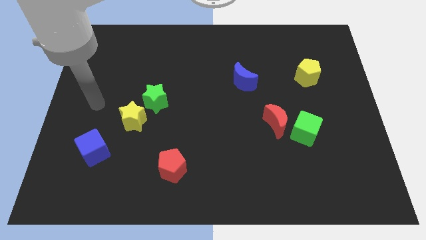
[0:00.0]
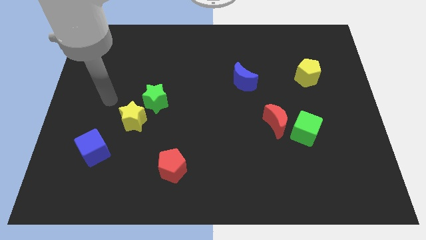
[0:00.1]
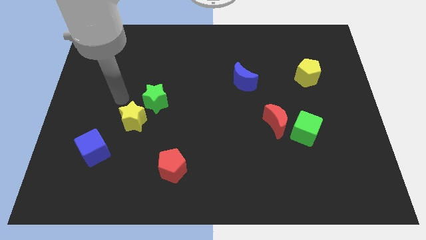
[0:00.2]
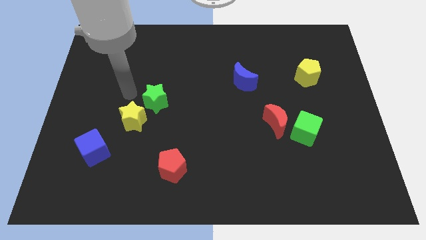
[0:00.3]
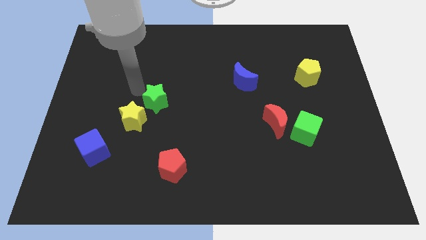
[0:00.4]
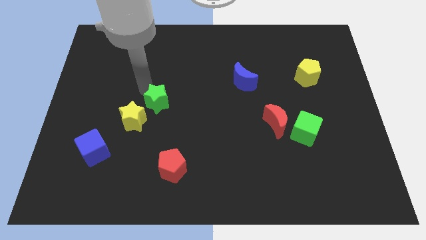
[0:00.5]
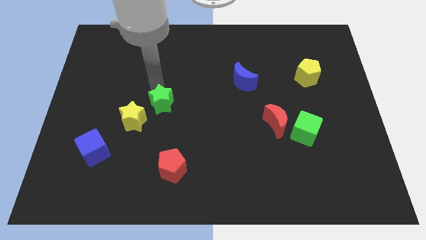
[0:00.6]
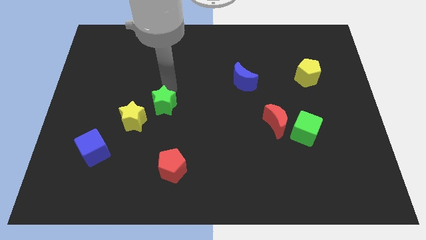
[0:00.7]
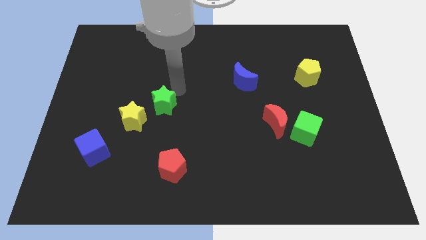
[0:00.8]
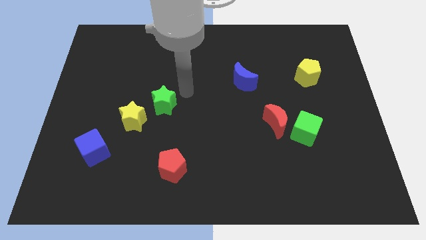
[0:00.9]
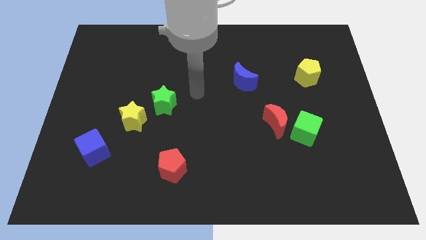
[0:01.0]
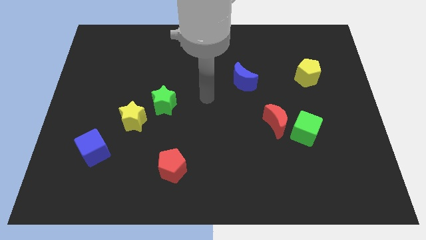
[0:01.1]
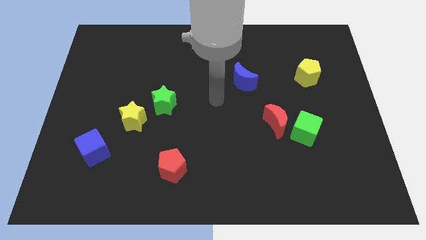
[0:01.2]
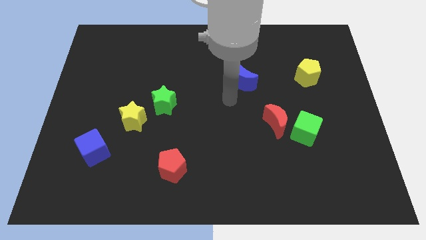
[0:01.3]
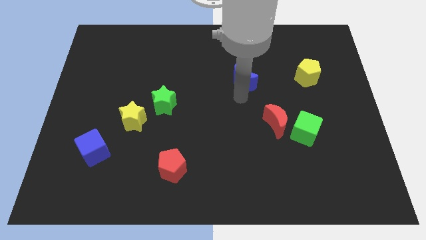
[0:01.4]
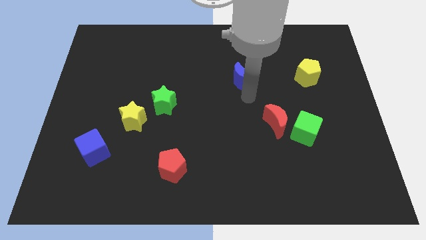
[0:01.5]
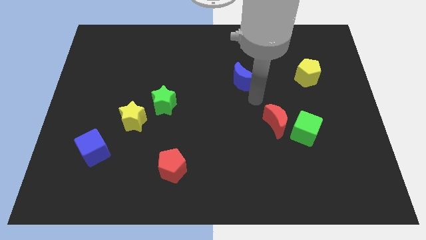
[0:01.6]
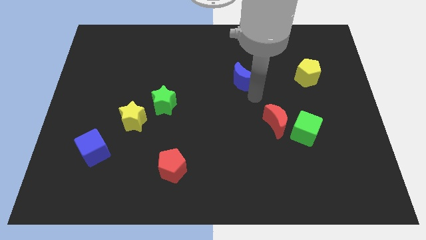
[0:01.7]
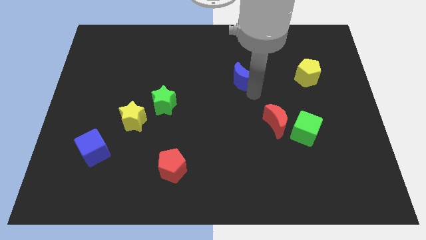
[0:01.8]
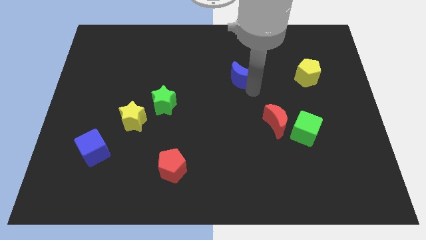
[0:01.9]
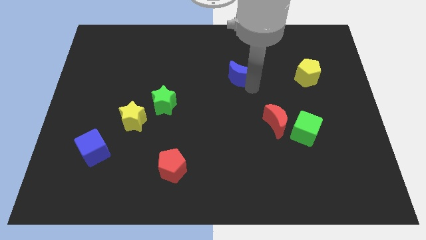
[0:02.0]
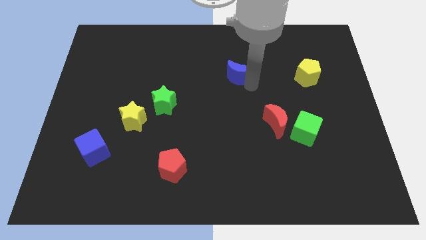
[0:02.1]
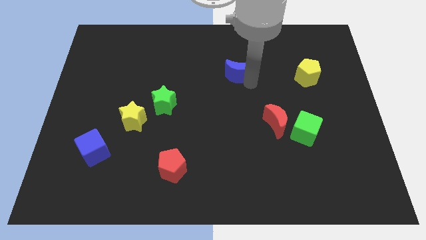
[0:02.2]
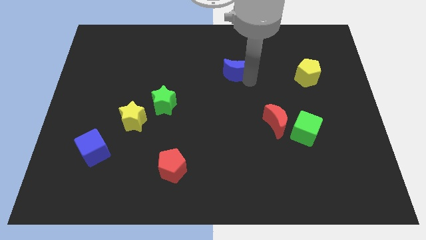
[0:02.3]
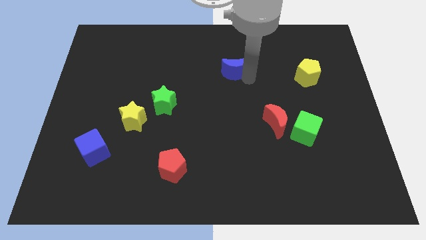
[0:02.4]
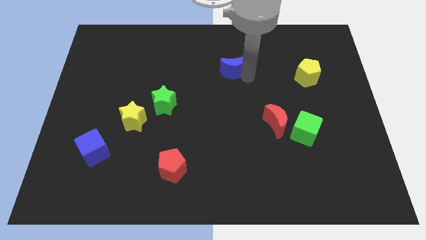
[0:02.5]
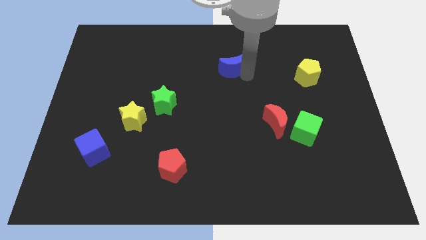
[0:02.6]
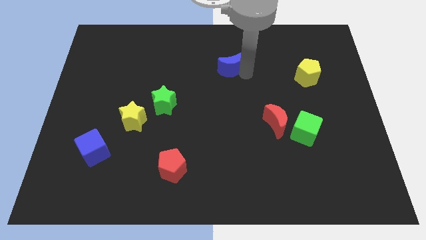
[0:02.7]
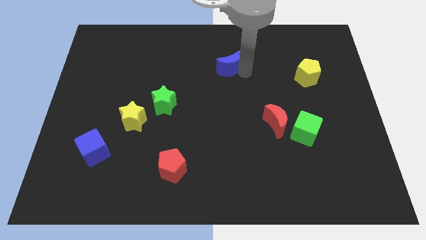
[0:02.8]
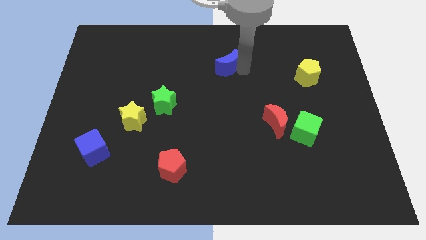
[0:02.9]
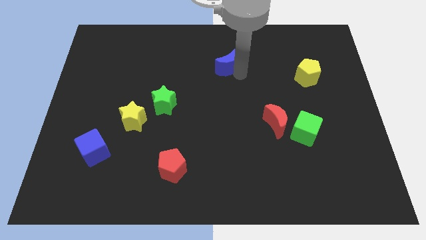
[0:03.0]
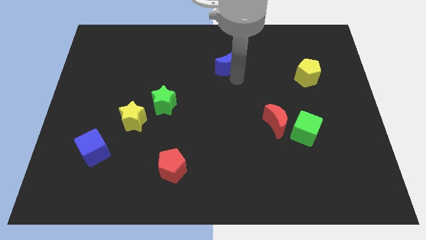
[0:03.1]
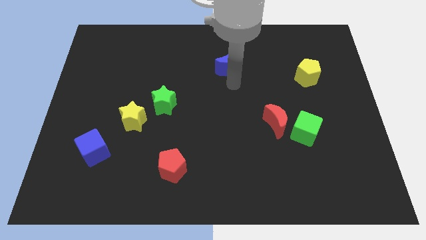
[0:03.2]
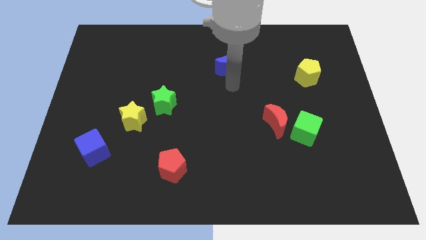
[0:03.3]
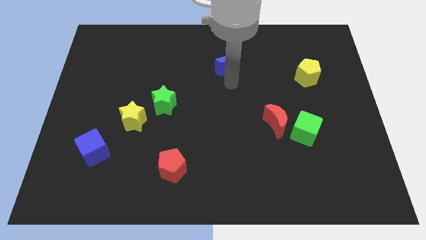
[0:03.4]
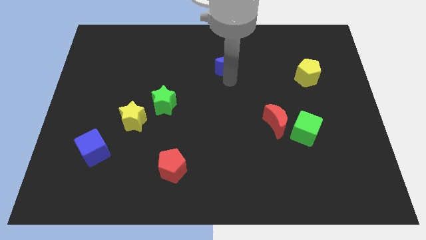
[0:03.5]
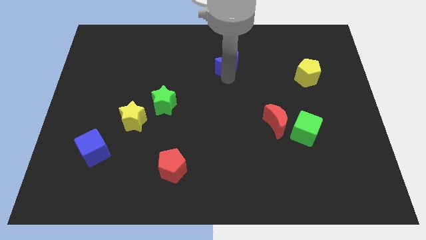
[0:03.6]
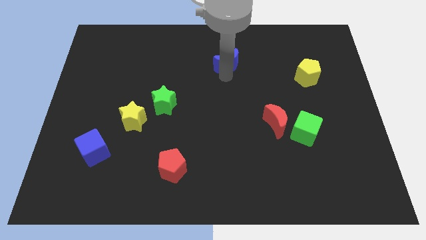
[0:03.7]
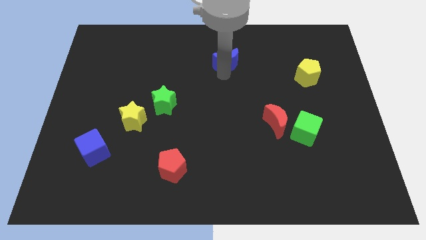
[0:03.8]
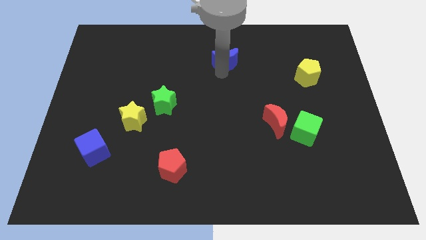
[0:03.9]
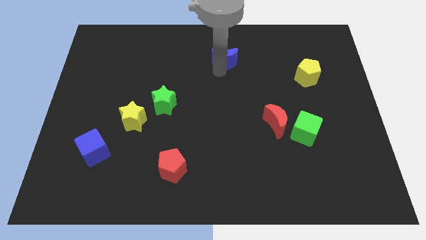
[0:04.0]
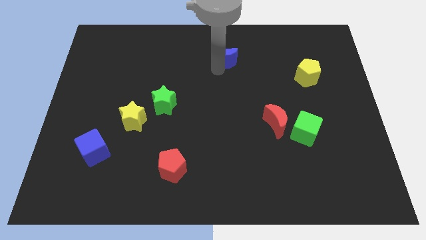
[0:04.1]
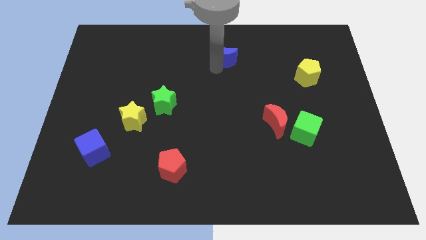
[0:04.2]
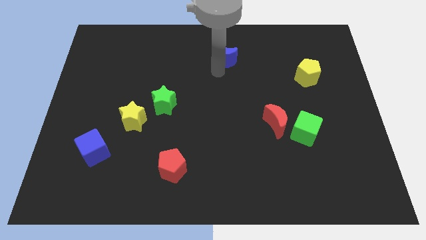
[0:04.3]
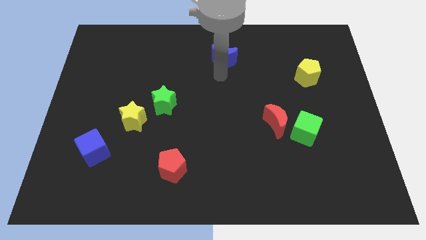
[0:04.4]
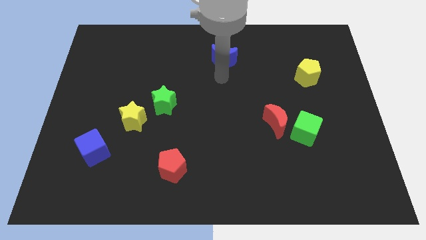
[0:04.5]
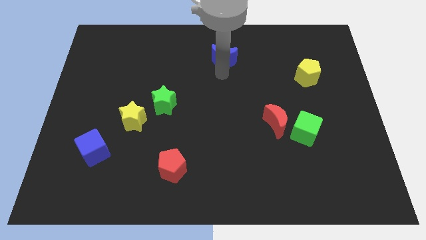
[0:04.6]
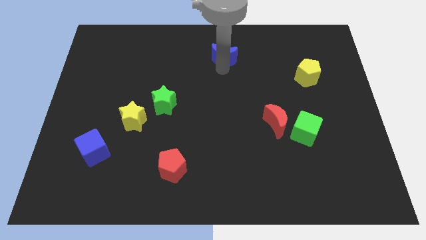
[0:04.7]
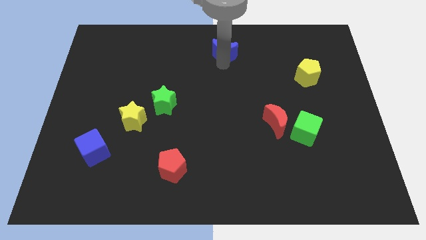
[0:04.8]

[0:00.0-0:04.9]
slide the blue moon to the towards your base

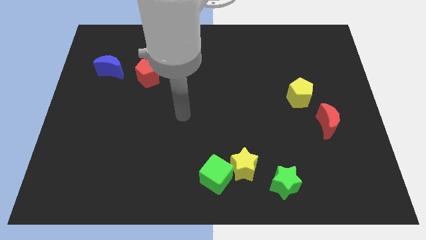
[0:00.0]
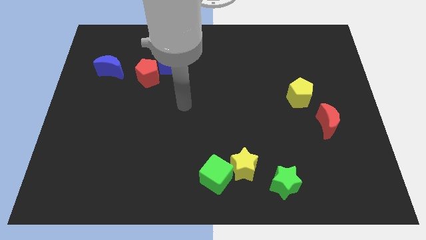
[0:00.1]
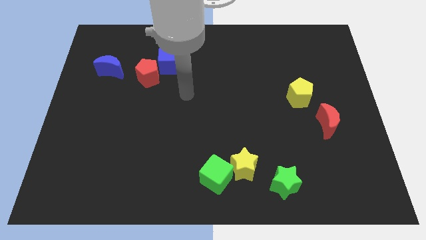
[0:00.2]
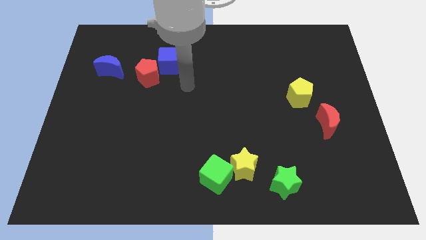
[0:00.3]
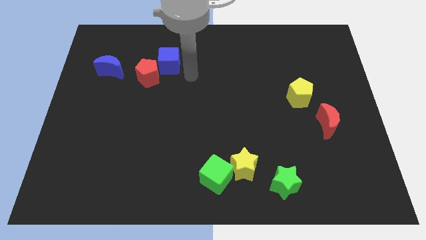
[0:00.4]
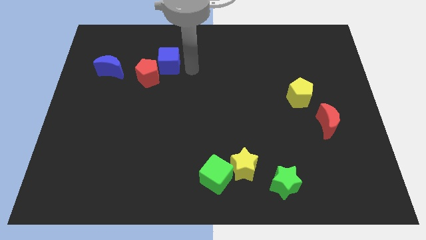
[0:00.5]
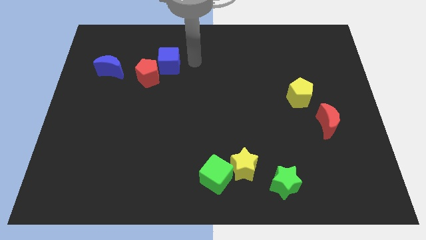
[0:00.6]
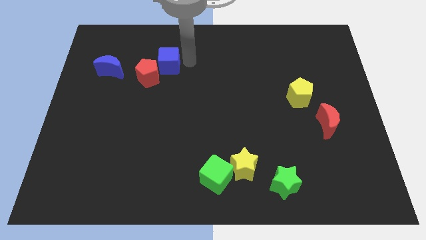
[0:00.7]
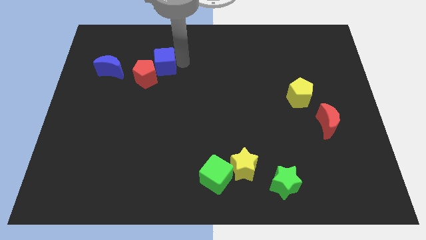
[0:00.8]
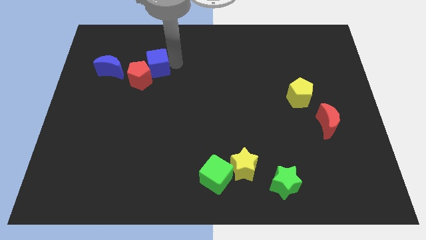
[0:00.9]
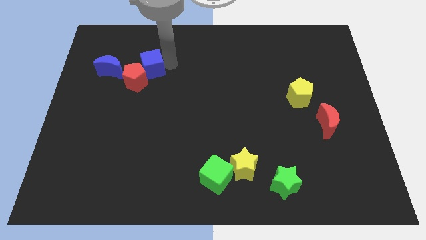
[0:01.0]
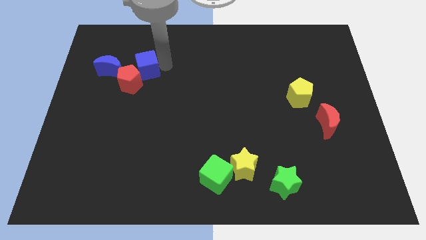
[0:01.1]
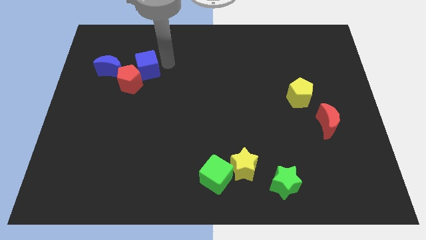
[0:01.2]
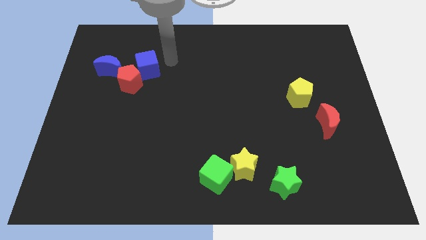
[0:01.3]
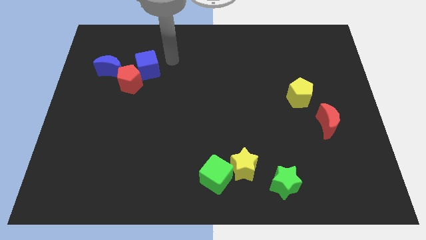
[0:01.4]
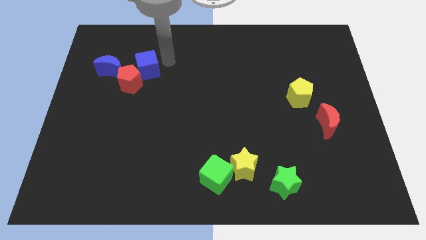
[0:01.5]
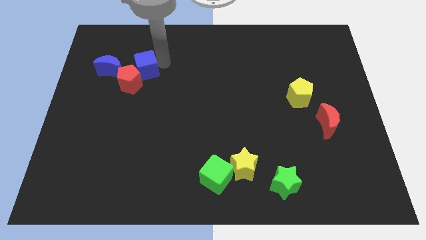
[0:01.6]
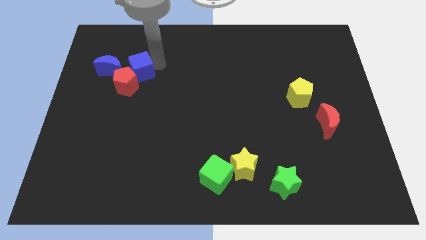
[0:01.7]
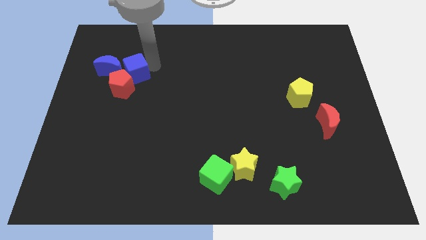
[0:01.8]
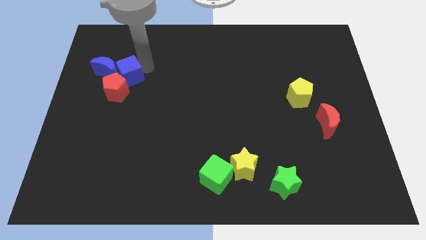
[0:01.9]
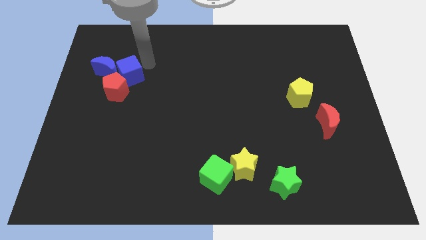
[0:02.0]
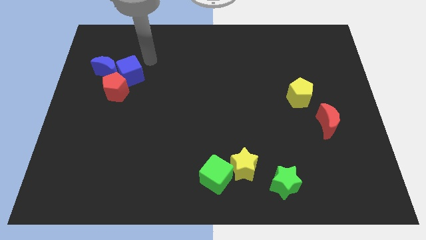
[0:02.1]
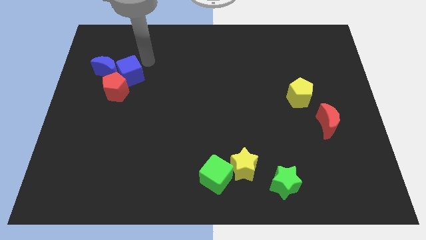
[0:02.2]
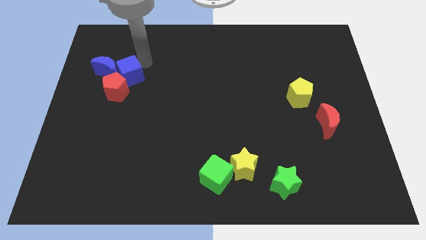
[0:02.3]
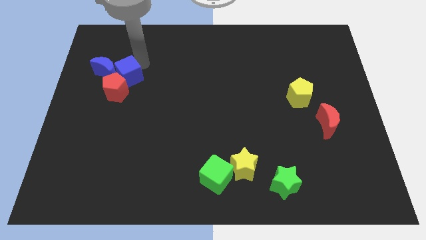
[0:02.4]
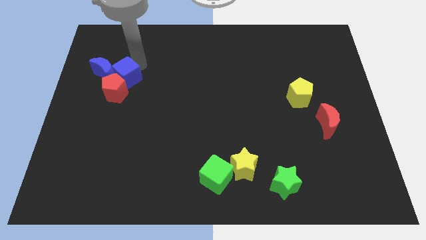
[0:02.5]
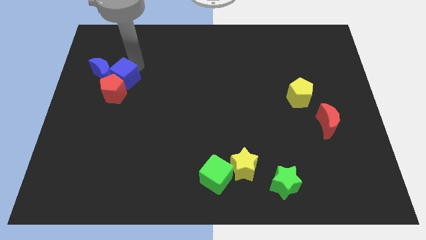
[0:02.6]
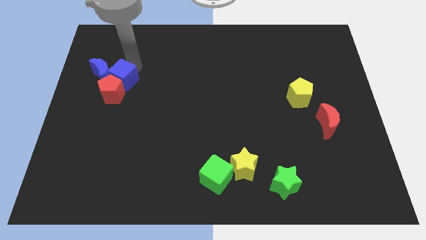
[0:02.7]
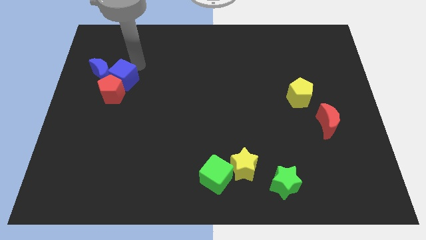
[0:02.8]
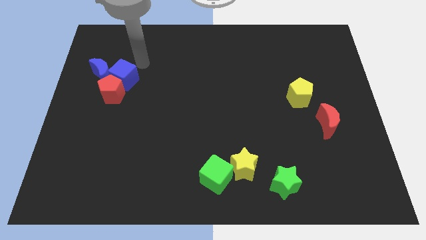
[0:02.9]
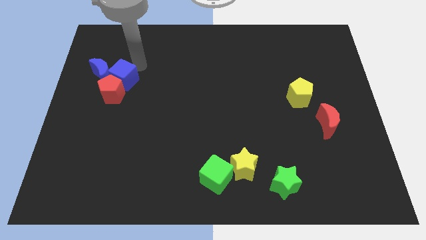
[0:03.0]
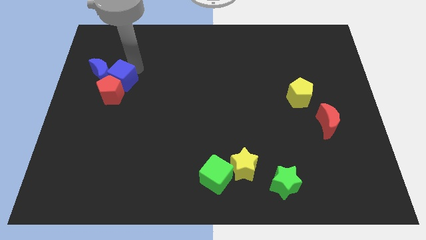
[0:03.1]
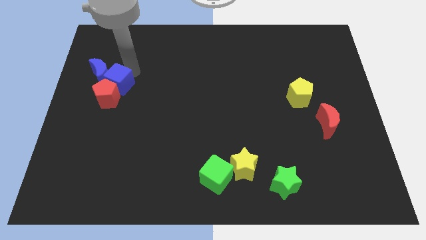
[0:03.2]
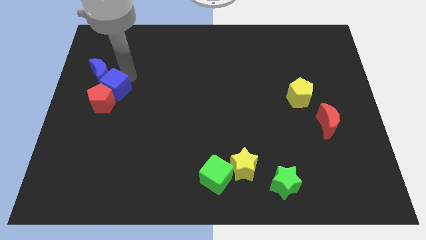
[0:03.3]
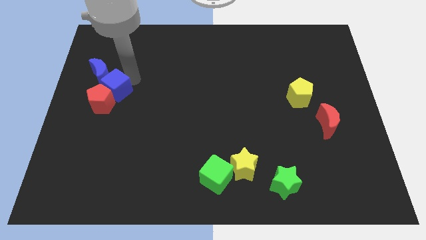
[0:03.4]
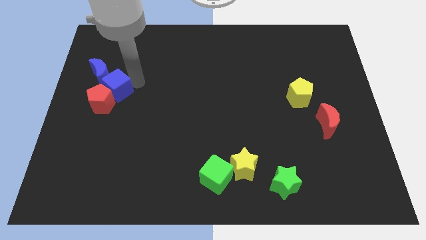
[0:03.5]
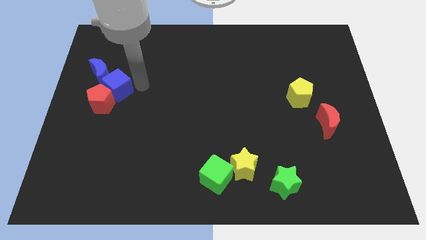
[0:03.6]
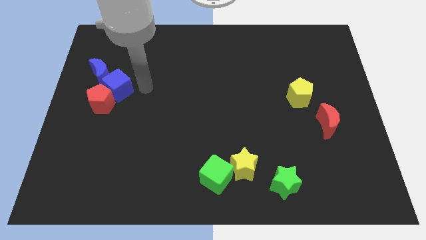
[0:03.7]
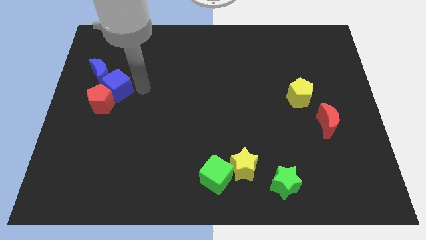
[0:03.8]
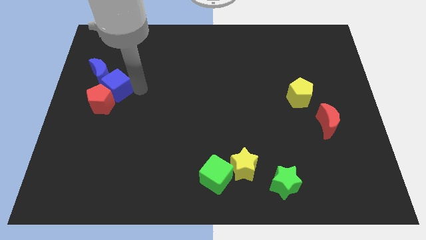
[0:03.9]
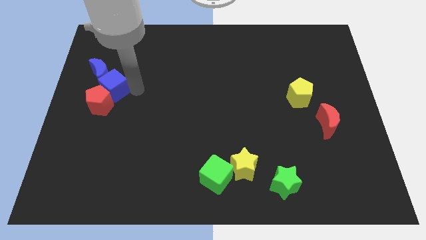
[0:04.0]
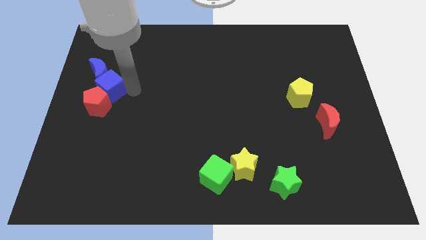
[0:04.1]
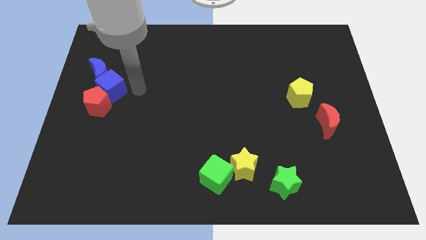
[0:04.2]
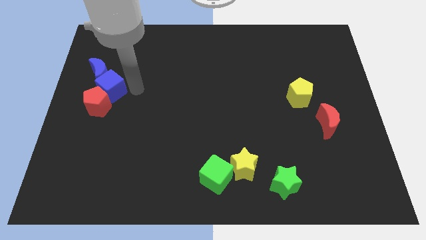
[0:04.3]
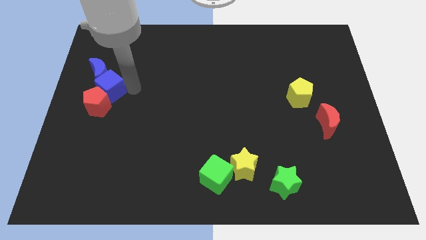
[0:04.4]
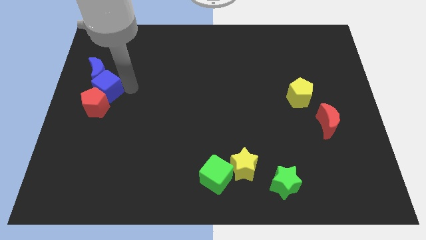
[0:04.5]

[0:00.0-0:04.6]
move the blue cube to the center left
